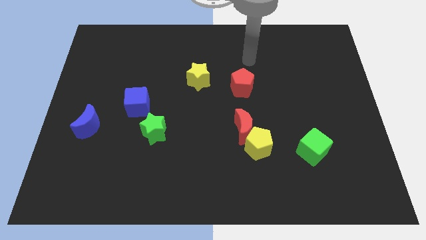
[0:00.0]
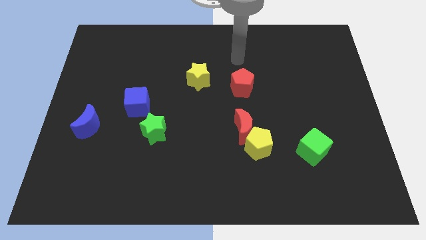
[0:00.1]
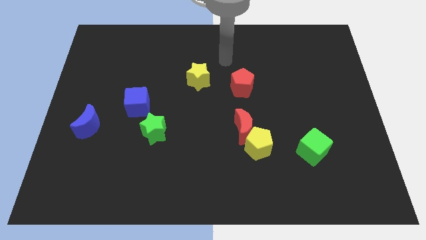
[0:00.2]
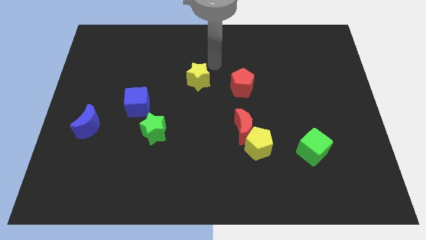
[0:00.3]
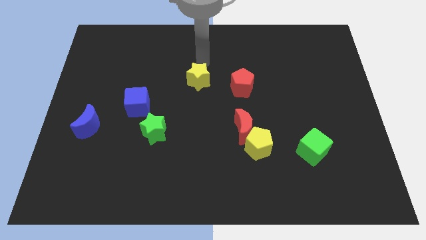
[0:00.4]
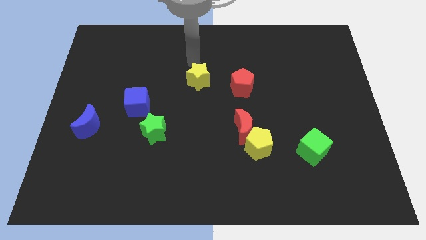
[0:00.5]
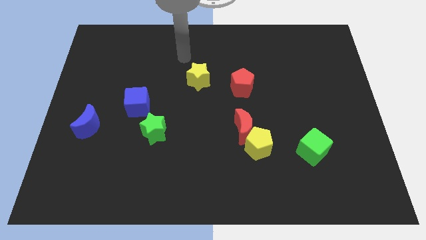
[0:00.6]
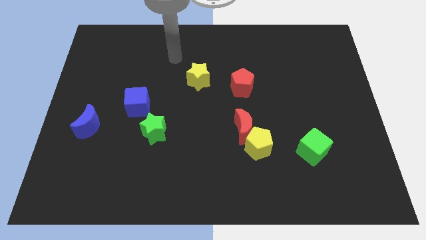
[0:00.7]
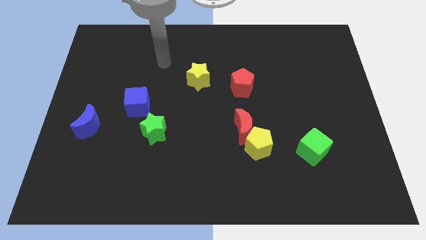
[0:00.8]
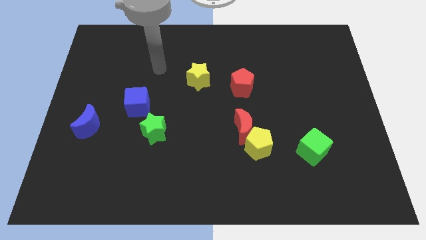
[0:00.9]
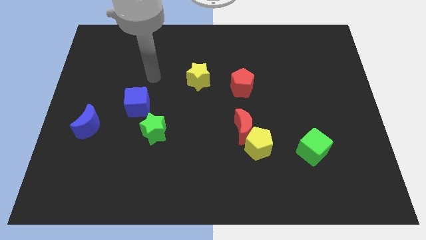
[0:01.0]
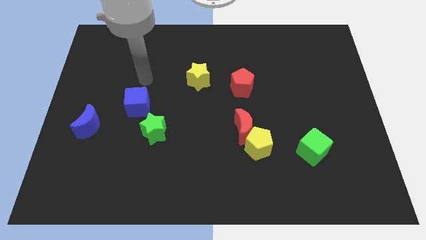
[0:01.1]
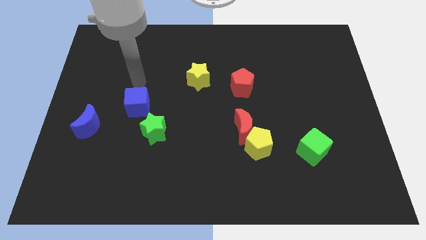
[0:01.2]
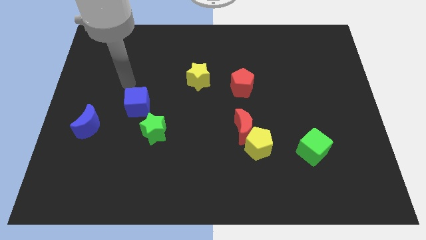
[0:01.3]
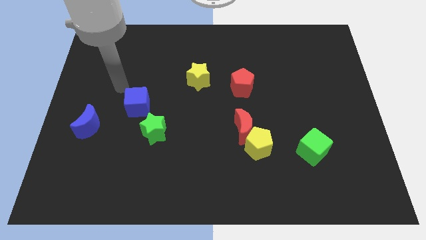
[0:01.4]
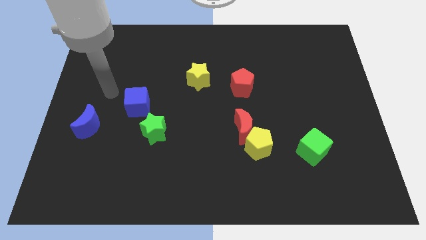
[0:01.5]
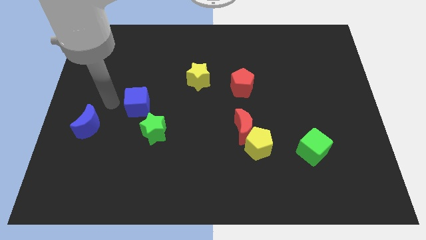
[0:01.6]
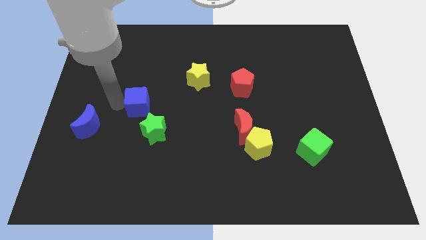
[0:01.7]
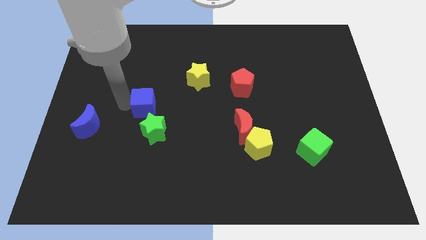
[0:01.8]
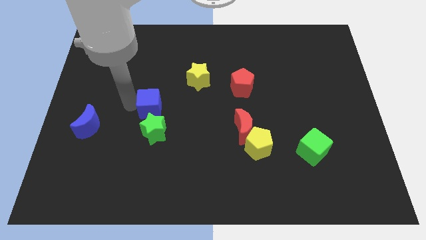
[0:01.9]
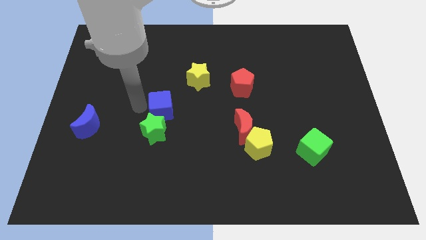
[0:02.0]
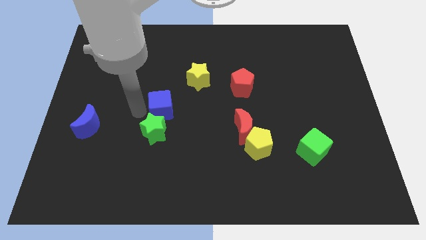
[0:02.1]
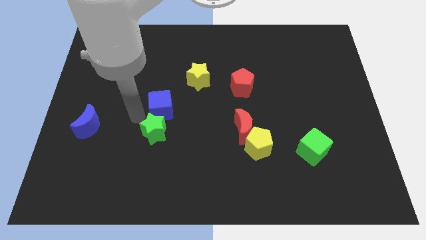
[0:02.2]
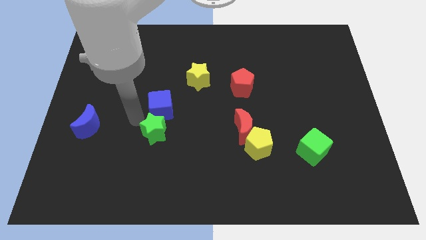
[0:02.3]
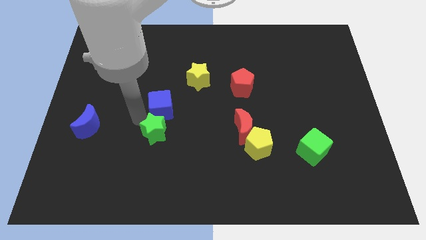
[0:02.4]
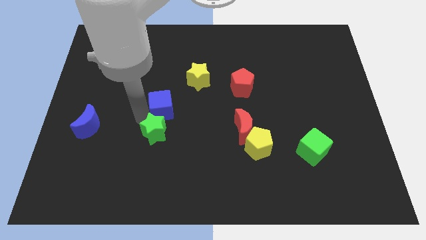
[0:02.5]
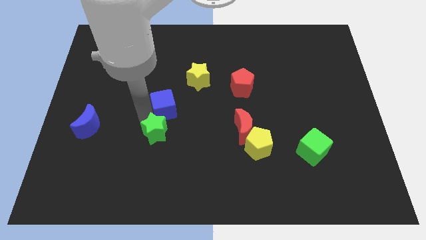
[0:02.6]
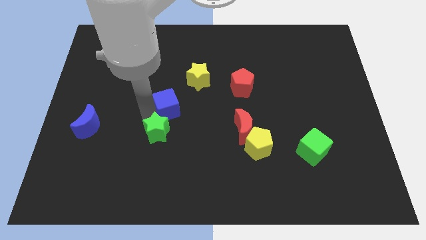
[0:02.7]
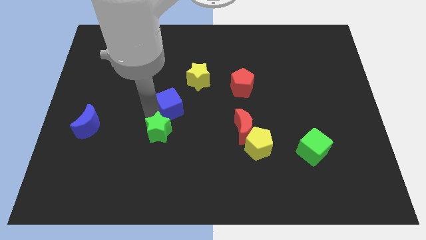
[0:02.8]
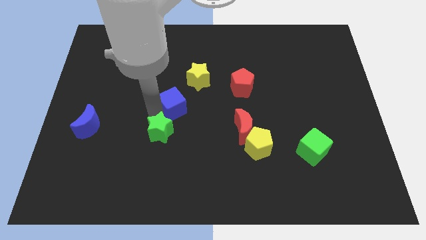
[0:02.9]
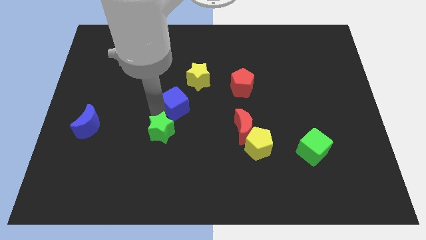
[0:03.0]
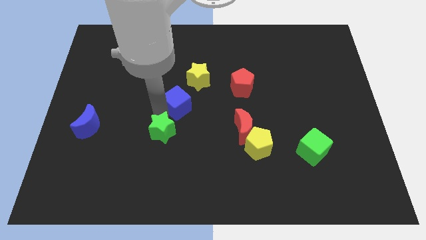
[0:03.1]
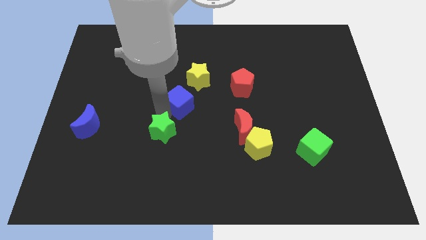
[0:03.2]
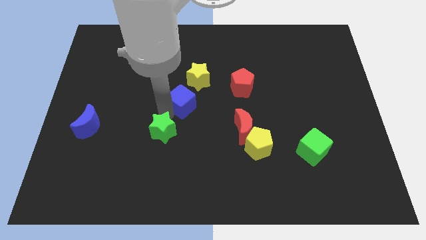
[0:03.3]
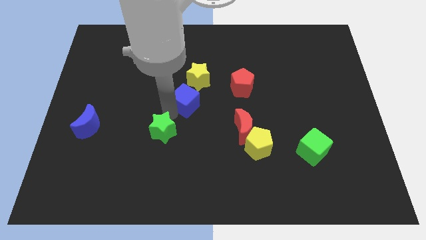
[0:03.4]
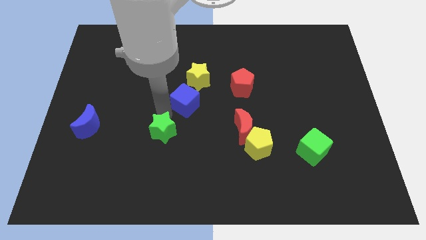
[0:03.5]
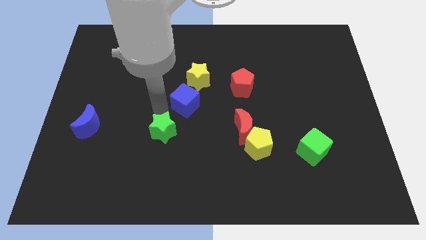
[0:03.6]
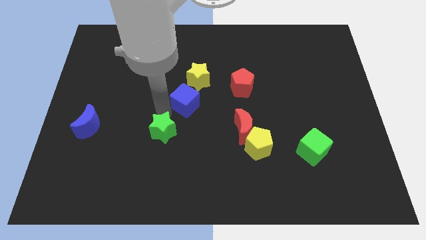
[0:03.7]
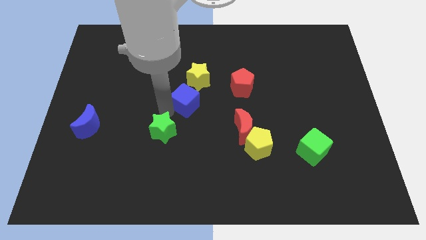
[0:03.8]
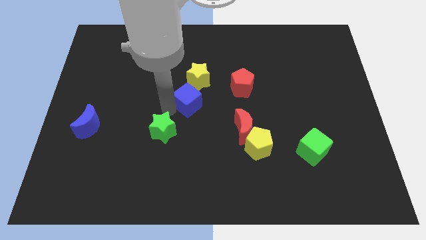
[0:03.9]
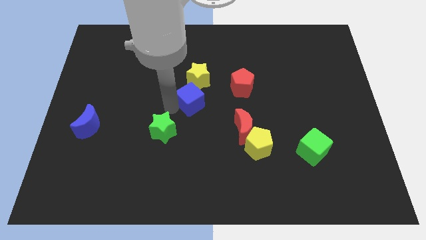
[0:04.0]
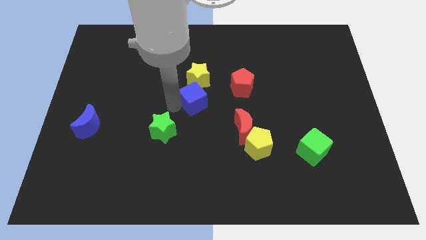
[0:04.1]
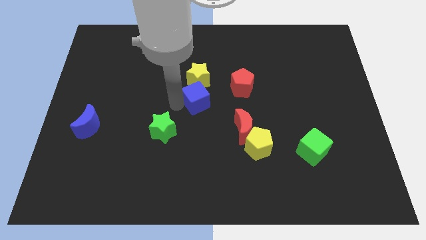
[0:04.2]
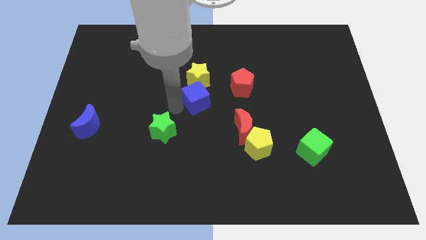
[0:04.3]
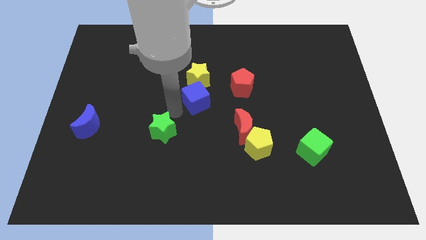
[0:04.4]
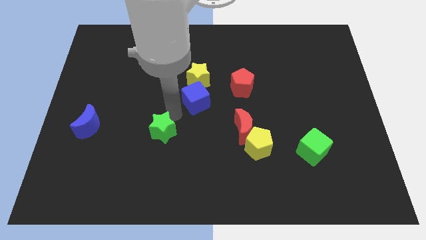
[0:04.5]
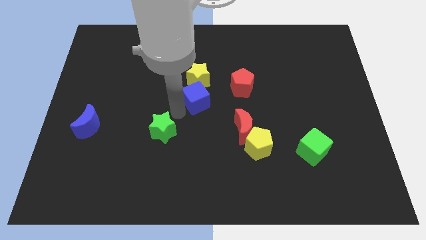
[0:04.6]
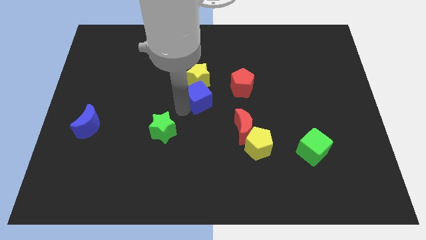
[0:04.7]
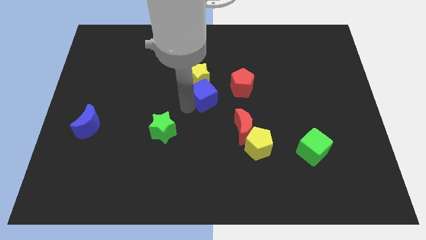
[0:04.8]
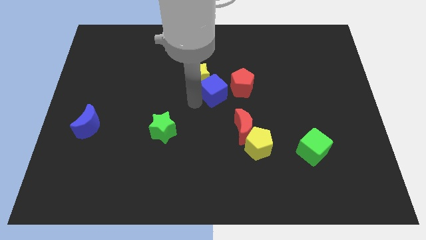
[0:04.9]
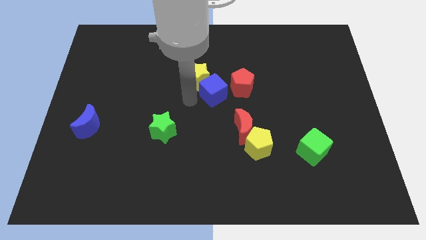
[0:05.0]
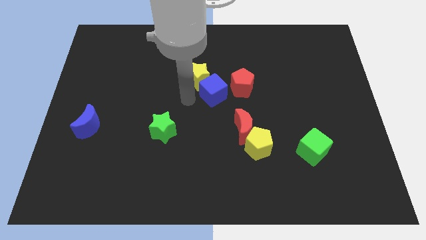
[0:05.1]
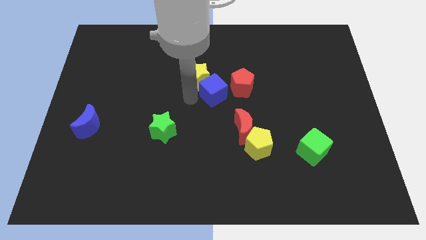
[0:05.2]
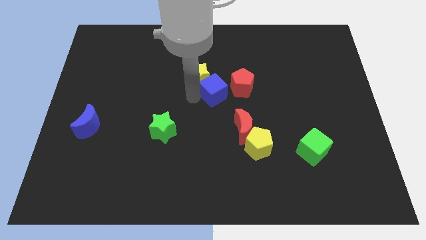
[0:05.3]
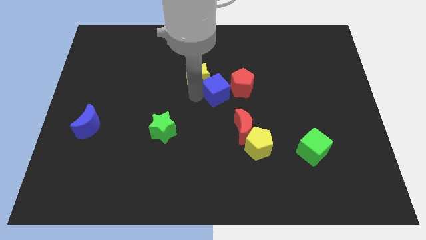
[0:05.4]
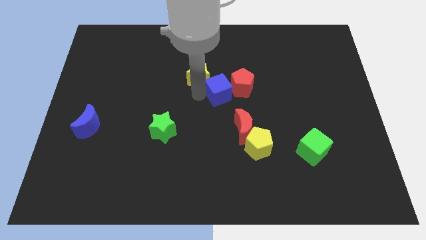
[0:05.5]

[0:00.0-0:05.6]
slide the blue cube close to the red pentagon
